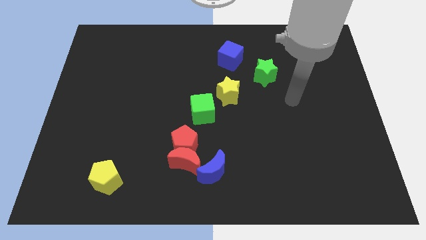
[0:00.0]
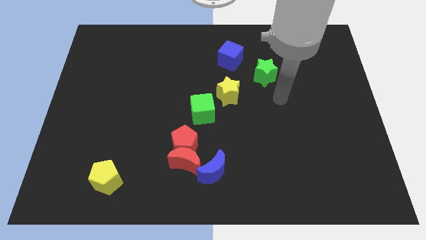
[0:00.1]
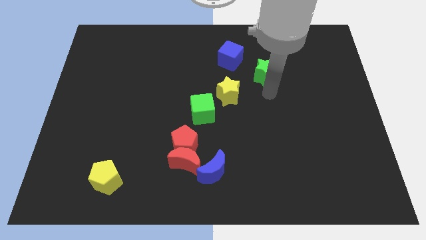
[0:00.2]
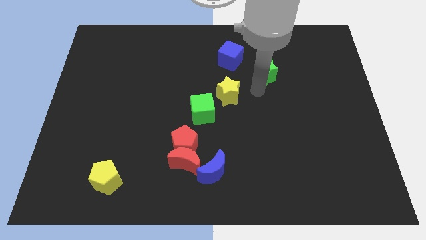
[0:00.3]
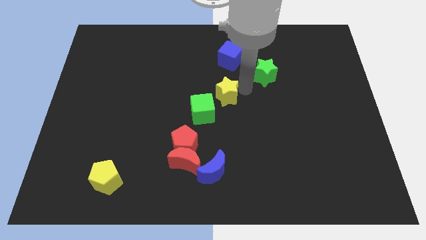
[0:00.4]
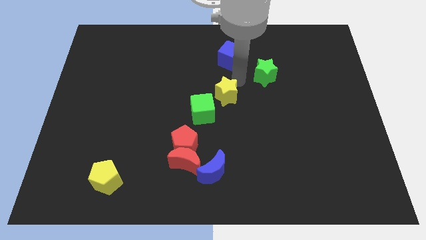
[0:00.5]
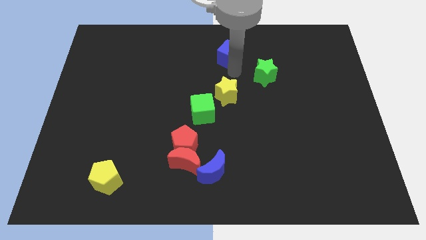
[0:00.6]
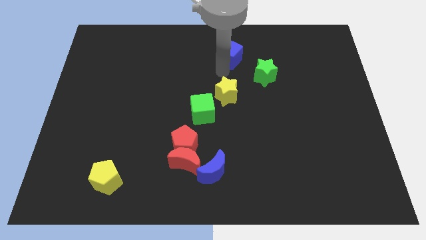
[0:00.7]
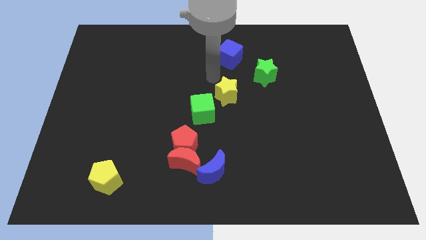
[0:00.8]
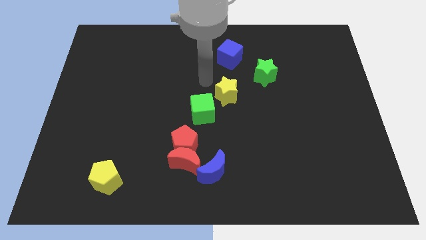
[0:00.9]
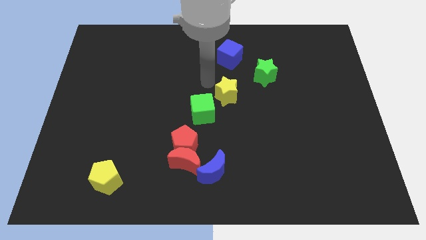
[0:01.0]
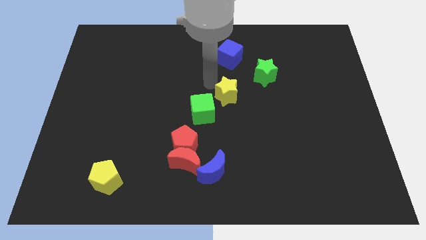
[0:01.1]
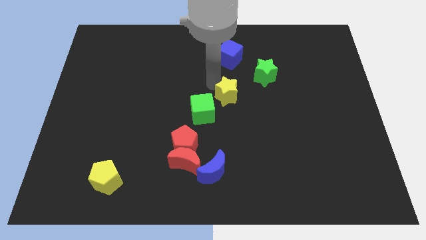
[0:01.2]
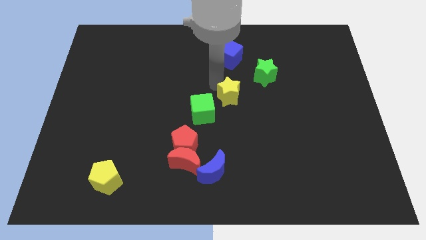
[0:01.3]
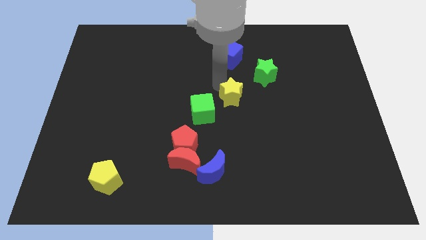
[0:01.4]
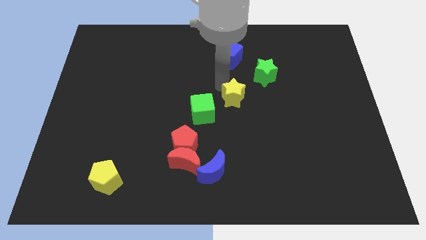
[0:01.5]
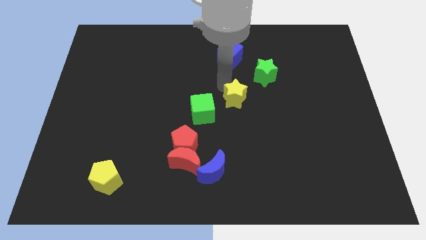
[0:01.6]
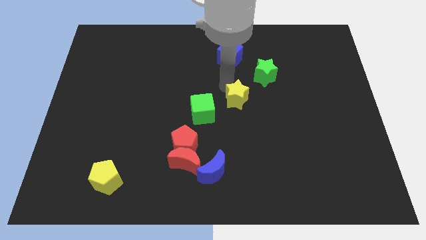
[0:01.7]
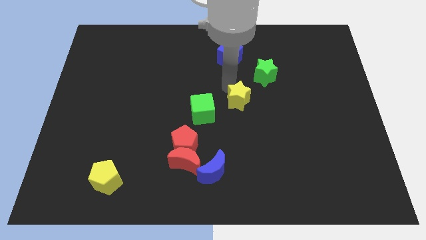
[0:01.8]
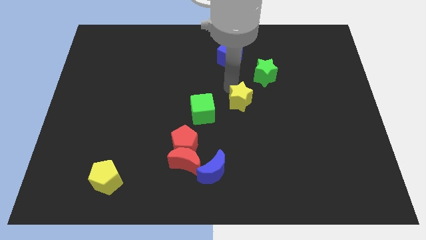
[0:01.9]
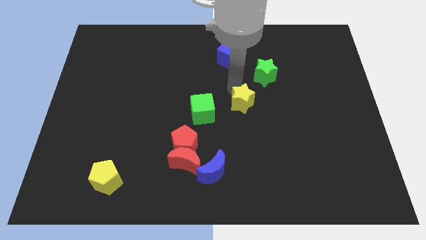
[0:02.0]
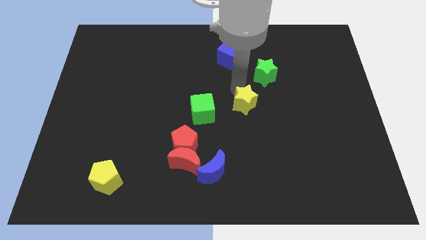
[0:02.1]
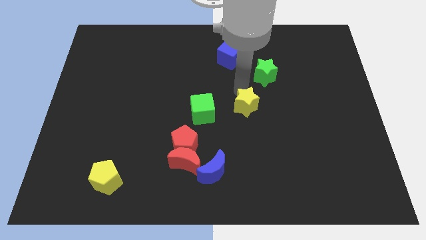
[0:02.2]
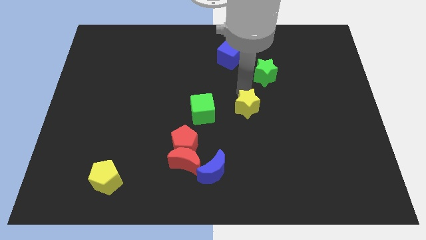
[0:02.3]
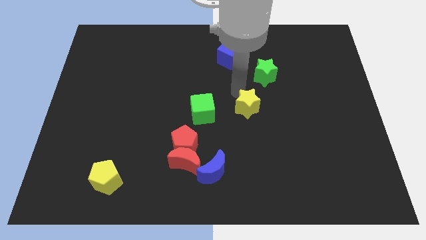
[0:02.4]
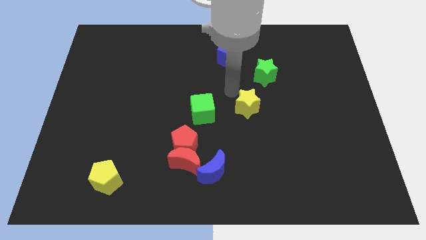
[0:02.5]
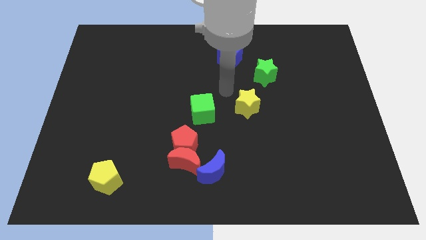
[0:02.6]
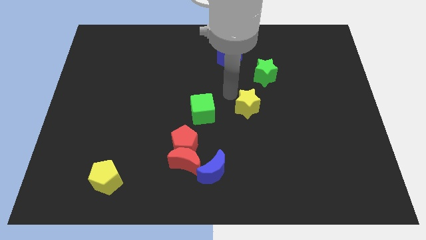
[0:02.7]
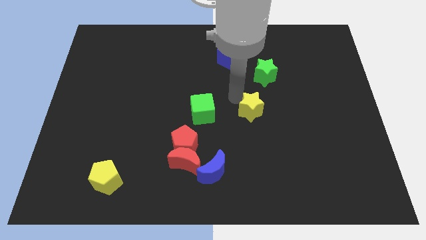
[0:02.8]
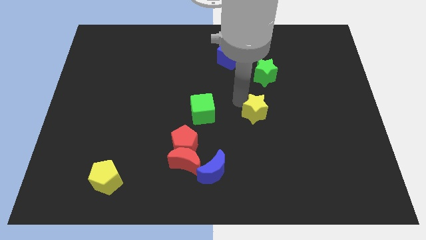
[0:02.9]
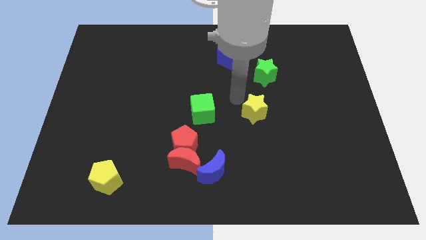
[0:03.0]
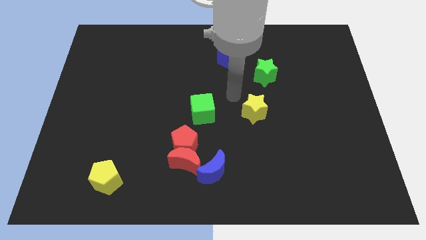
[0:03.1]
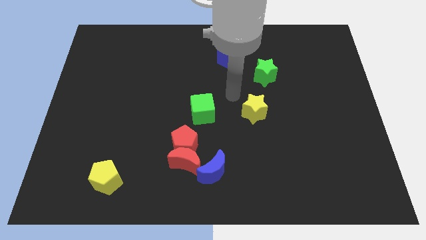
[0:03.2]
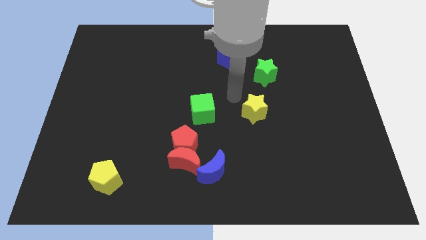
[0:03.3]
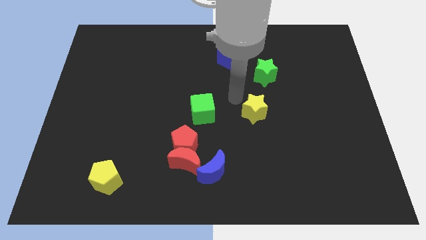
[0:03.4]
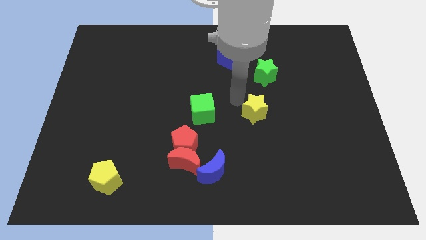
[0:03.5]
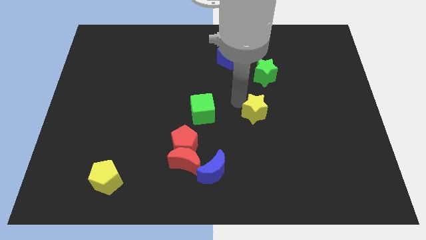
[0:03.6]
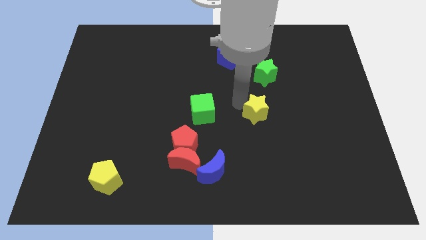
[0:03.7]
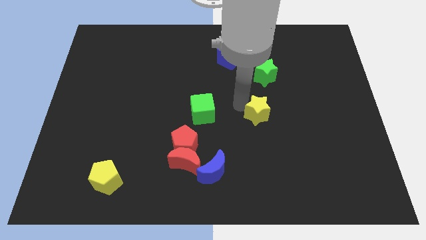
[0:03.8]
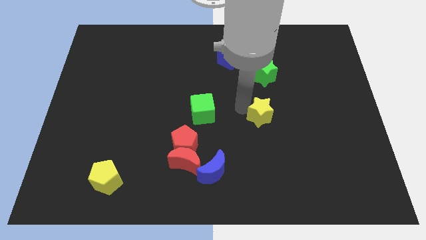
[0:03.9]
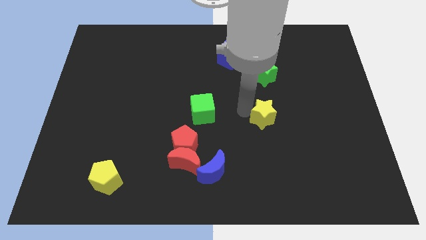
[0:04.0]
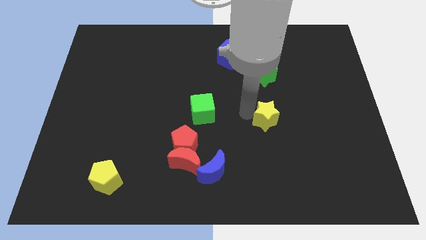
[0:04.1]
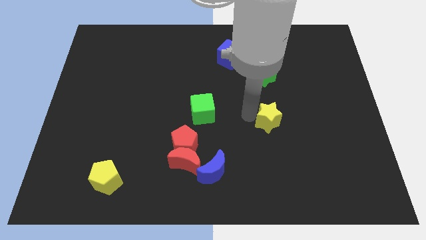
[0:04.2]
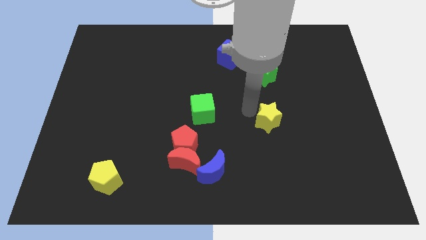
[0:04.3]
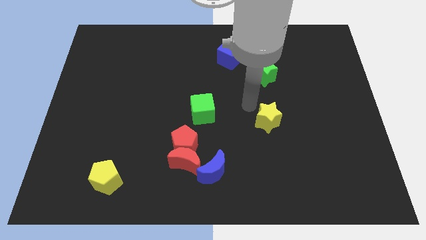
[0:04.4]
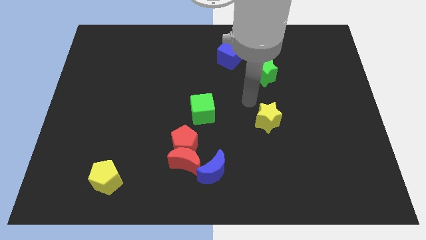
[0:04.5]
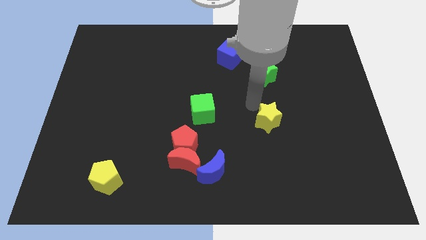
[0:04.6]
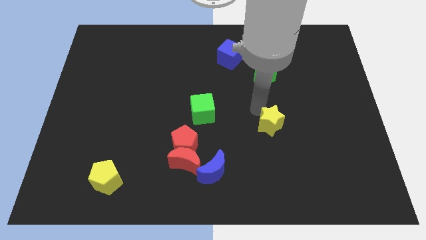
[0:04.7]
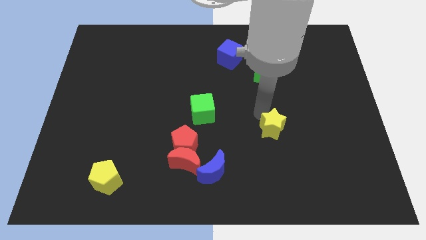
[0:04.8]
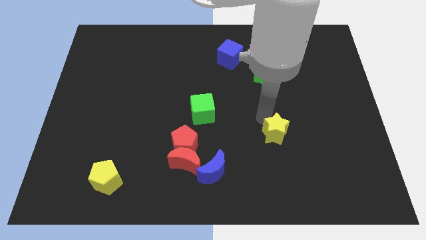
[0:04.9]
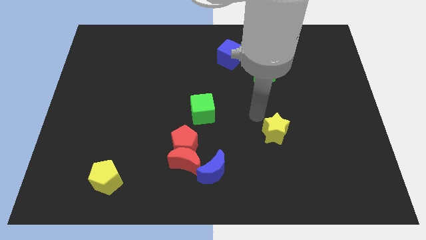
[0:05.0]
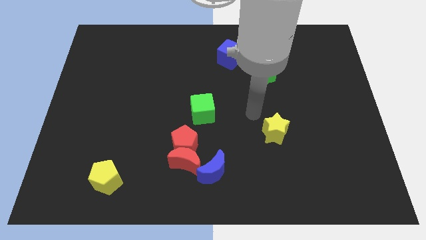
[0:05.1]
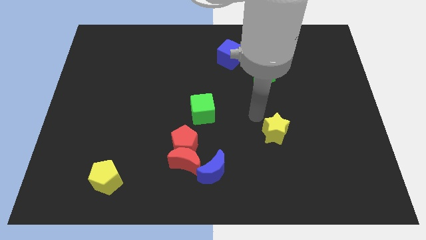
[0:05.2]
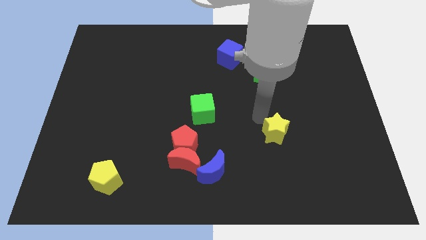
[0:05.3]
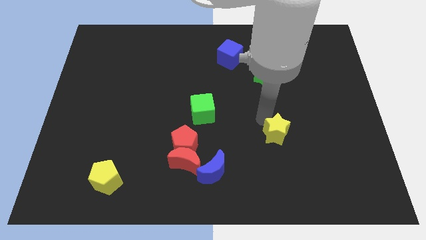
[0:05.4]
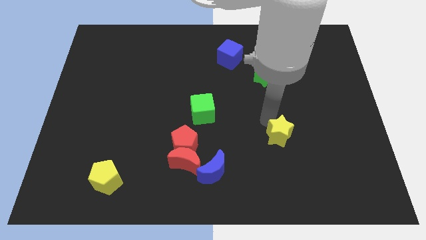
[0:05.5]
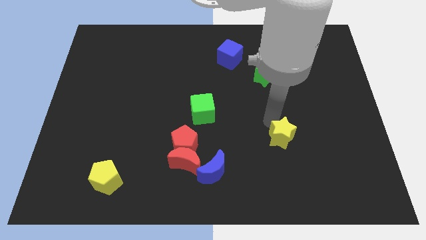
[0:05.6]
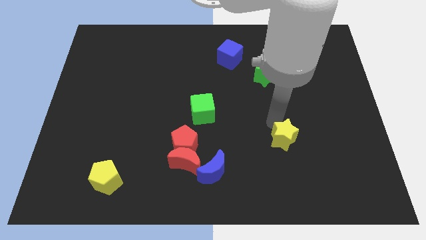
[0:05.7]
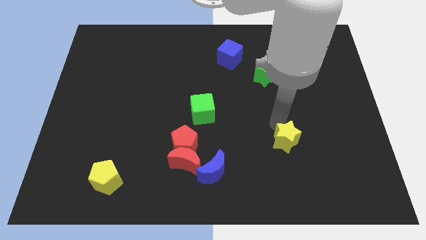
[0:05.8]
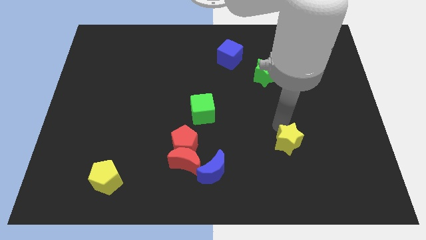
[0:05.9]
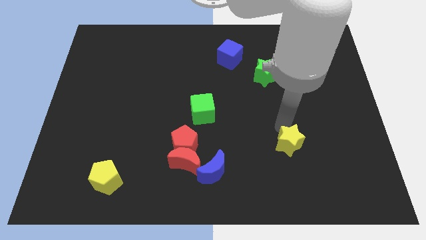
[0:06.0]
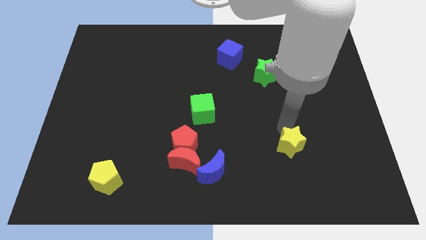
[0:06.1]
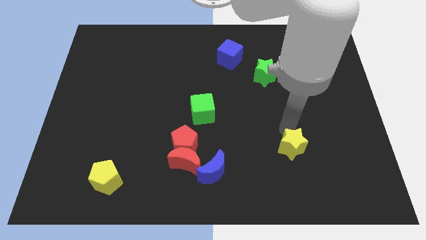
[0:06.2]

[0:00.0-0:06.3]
push the yellow star downwards and right

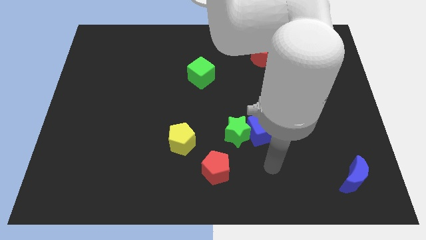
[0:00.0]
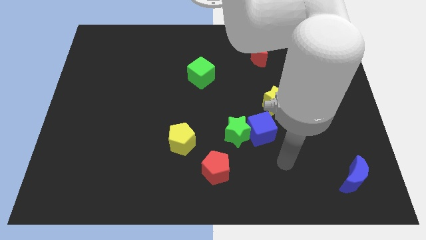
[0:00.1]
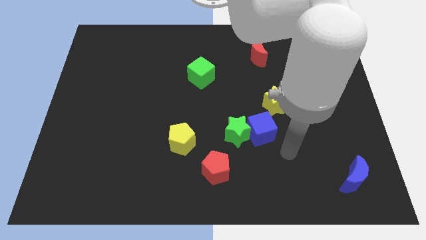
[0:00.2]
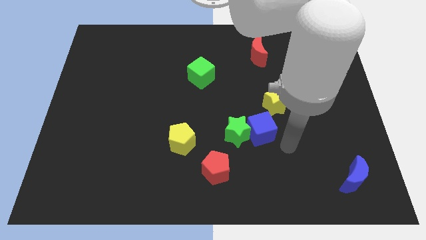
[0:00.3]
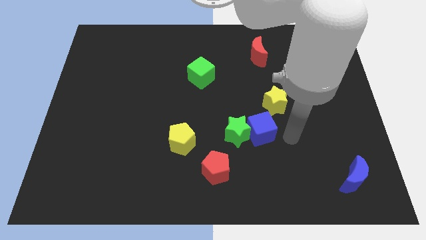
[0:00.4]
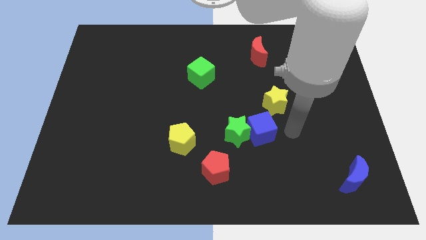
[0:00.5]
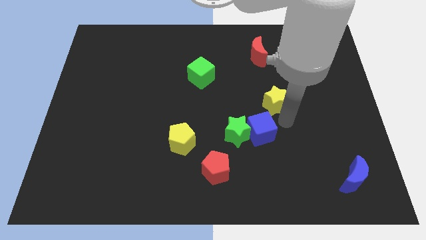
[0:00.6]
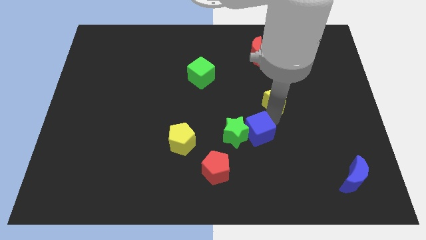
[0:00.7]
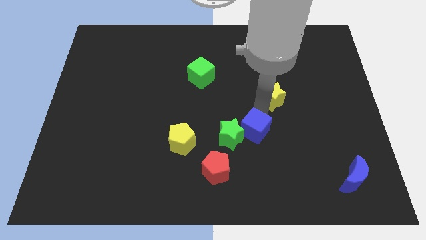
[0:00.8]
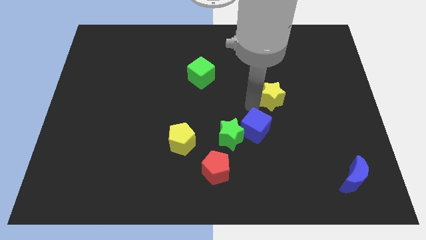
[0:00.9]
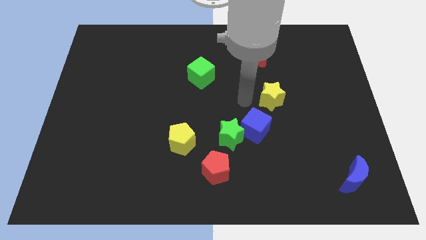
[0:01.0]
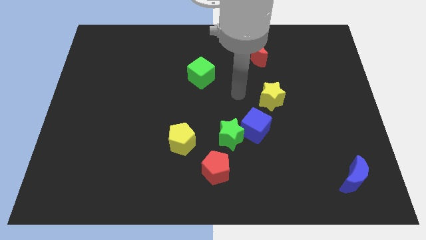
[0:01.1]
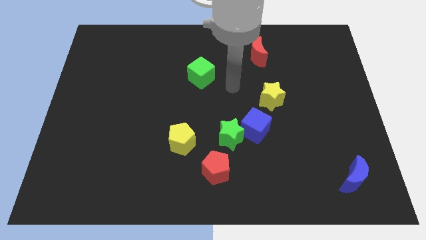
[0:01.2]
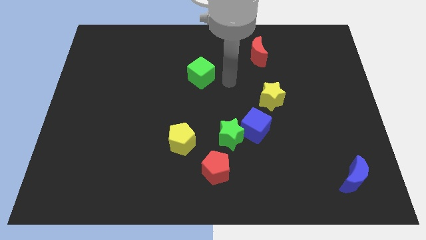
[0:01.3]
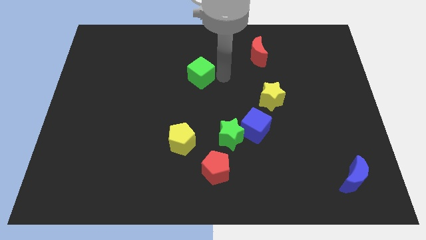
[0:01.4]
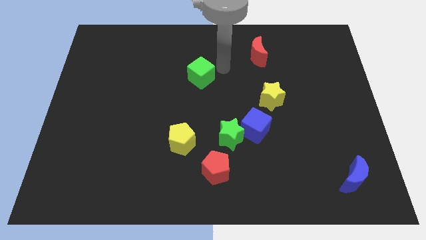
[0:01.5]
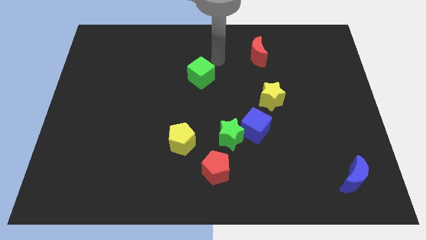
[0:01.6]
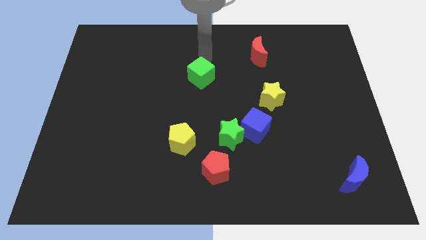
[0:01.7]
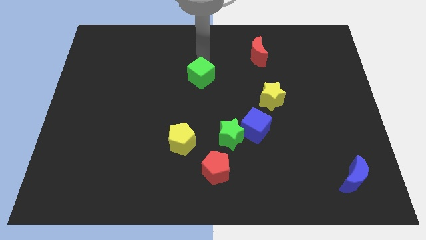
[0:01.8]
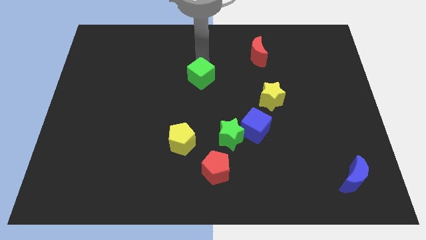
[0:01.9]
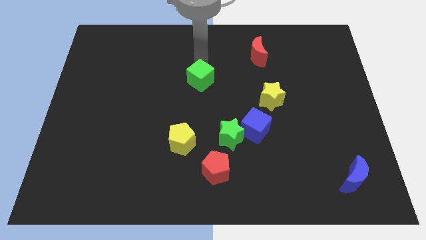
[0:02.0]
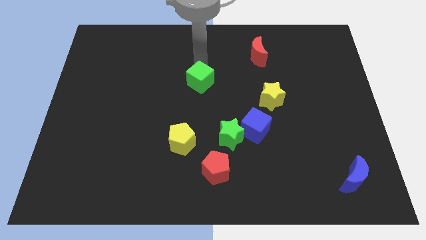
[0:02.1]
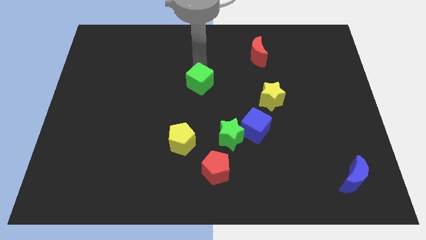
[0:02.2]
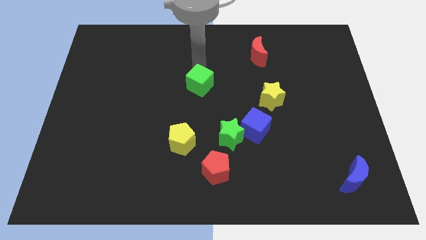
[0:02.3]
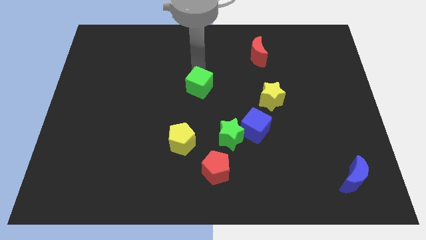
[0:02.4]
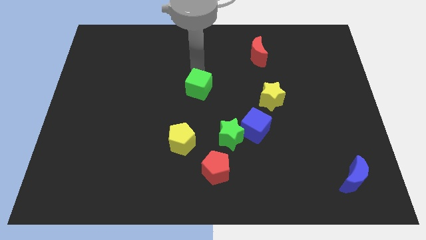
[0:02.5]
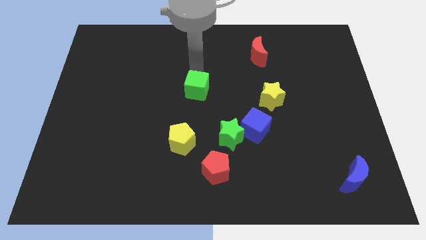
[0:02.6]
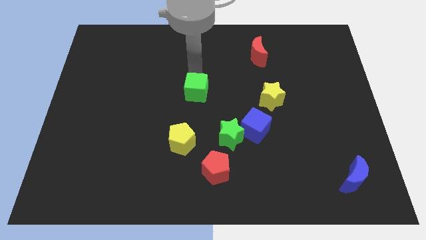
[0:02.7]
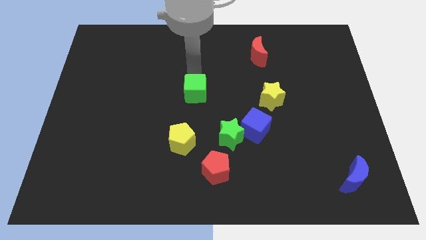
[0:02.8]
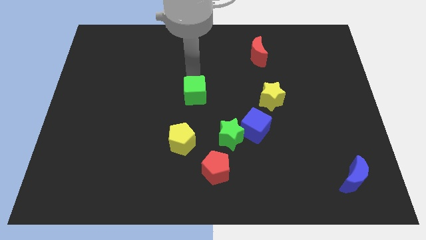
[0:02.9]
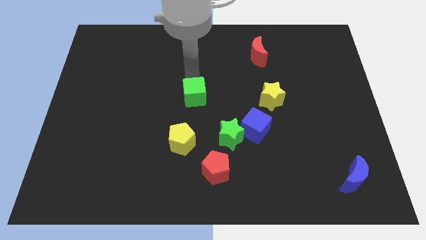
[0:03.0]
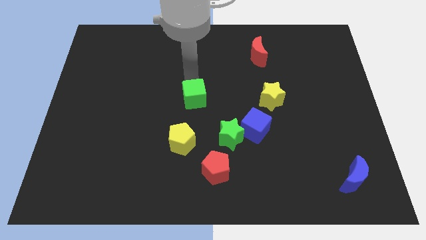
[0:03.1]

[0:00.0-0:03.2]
slide the green cube a little bit down
